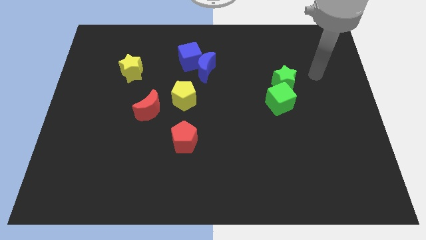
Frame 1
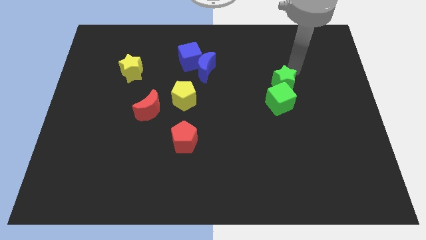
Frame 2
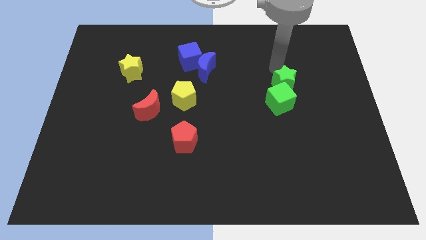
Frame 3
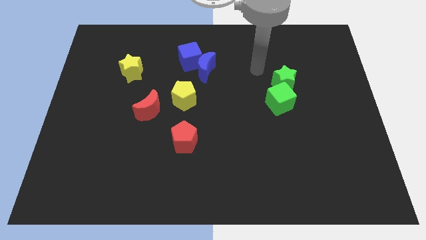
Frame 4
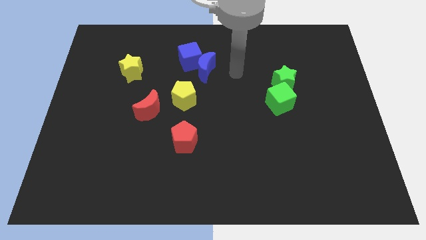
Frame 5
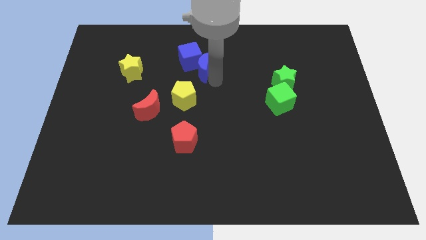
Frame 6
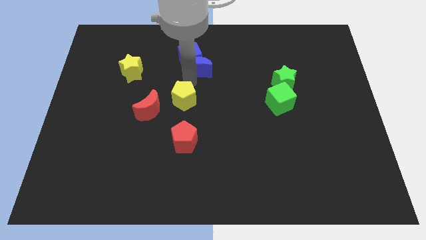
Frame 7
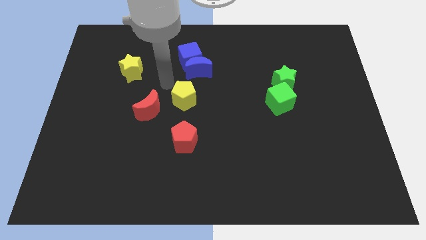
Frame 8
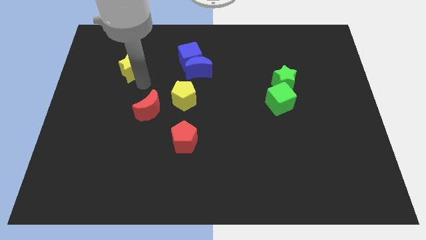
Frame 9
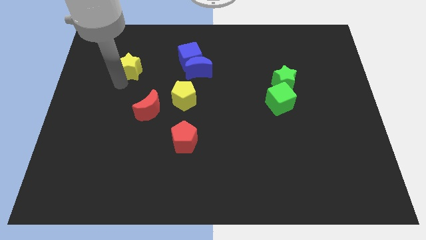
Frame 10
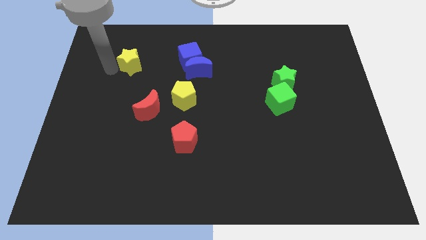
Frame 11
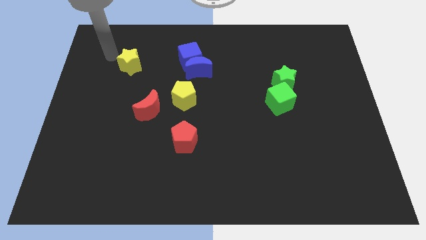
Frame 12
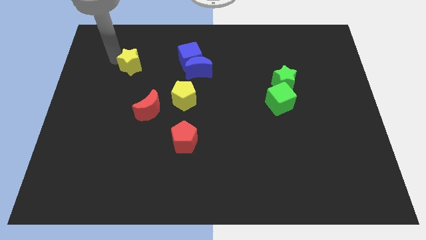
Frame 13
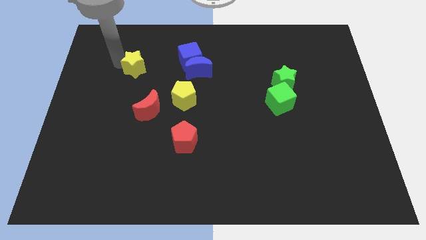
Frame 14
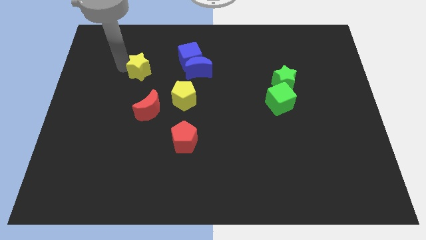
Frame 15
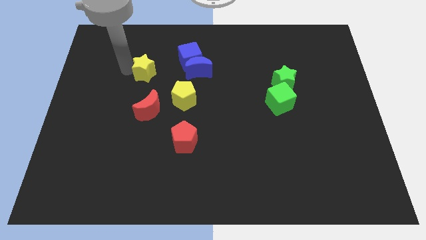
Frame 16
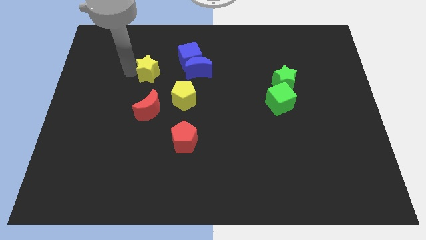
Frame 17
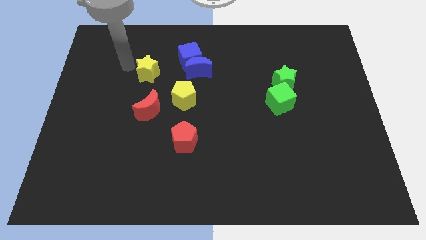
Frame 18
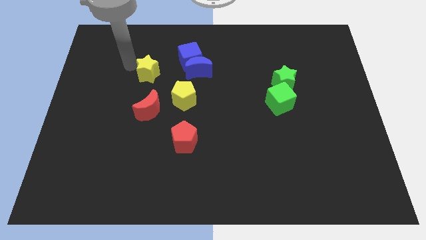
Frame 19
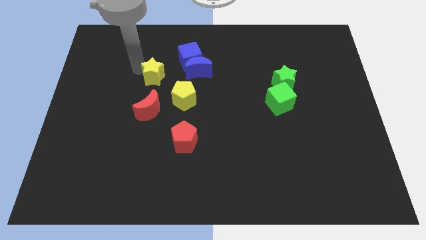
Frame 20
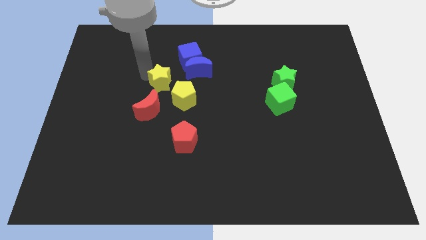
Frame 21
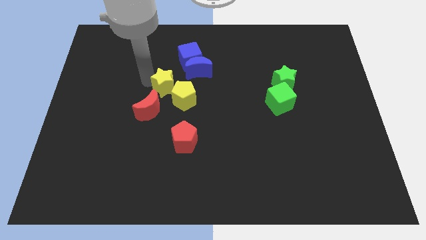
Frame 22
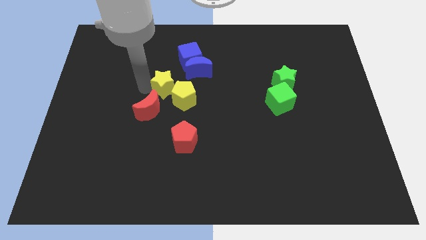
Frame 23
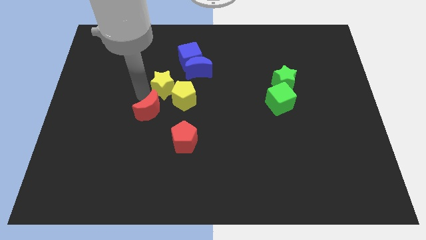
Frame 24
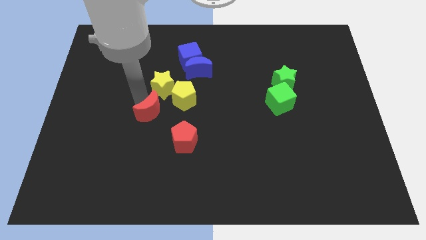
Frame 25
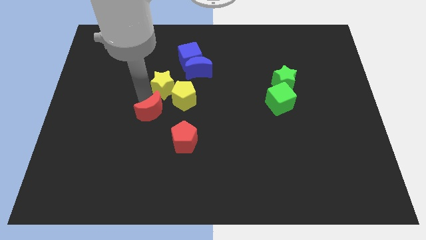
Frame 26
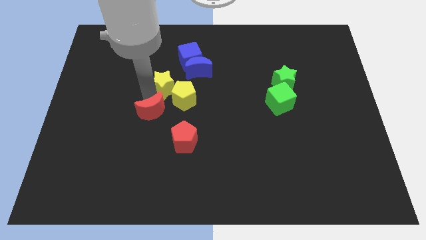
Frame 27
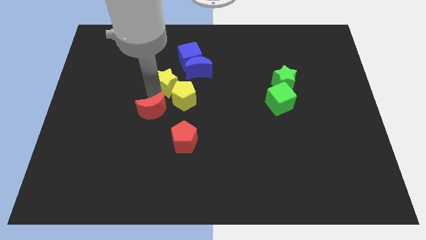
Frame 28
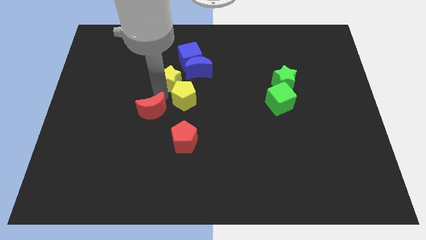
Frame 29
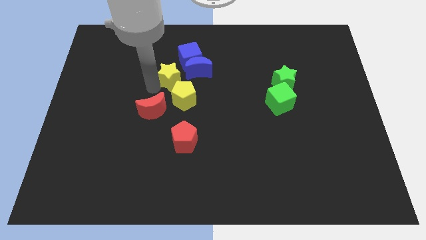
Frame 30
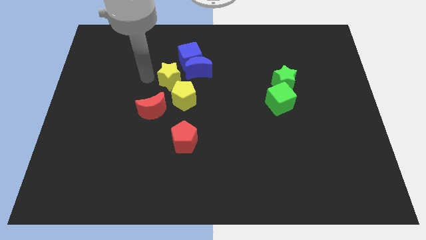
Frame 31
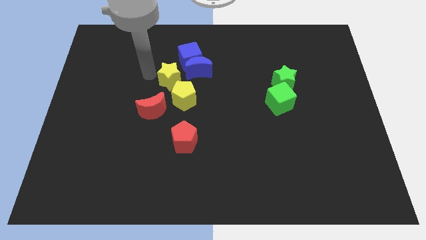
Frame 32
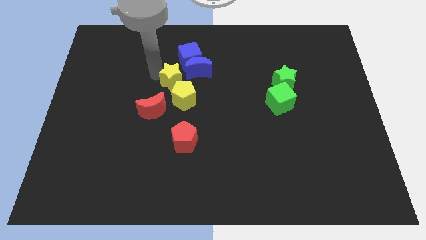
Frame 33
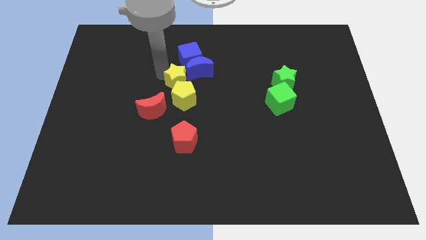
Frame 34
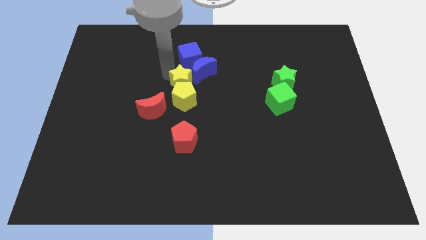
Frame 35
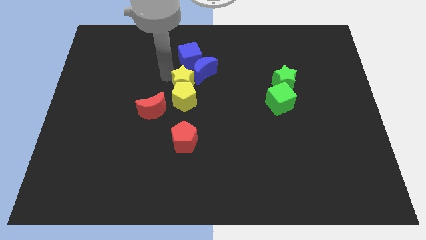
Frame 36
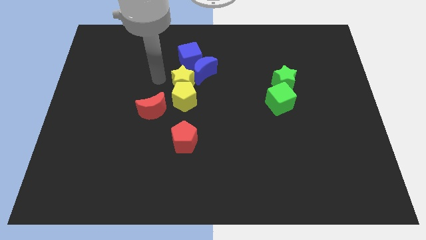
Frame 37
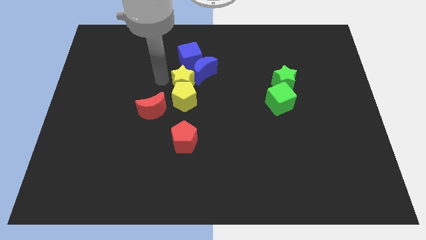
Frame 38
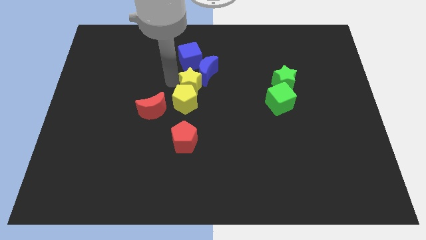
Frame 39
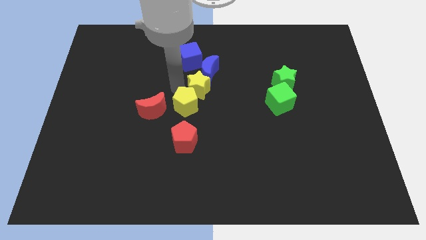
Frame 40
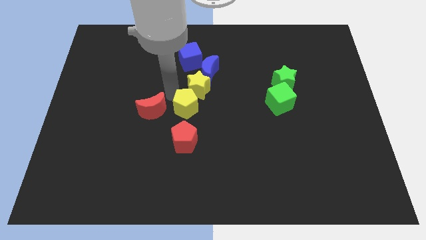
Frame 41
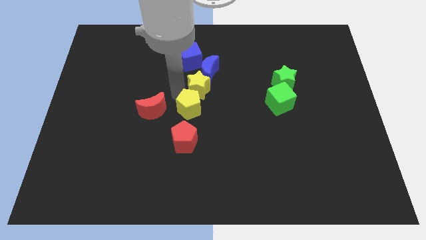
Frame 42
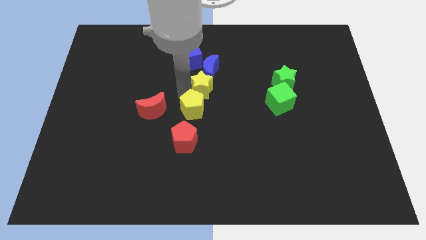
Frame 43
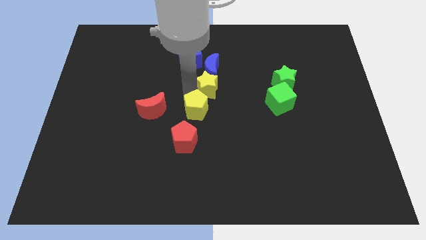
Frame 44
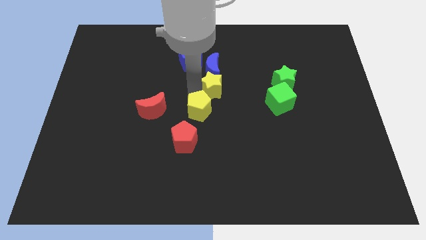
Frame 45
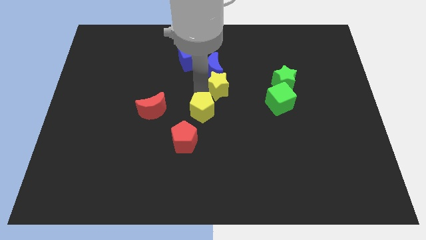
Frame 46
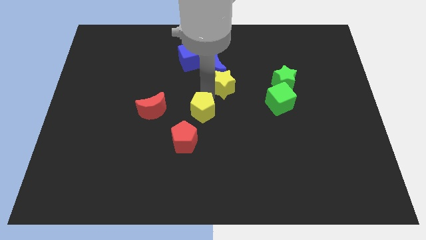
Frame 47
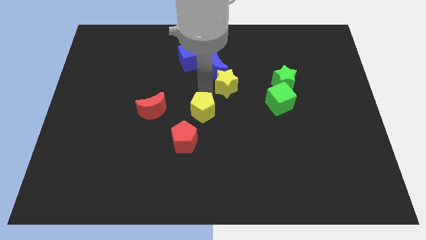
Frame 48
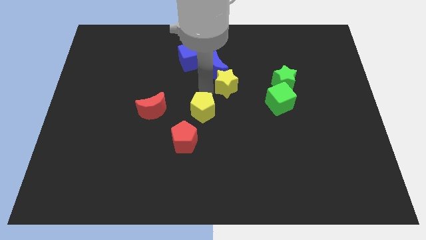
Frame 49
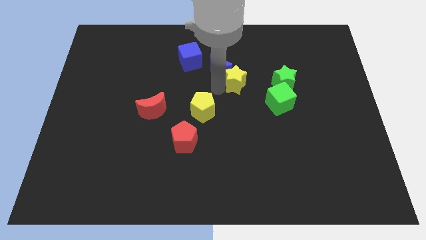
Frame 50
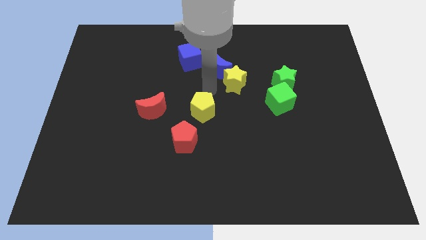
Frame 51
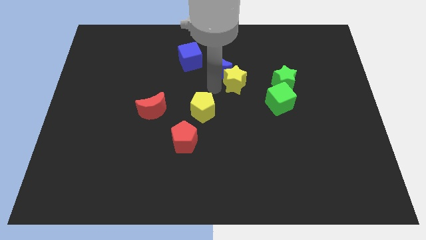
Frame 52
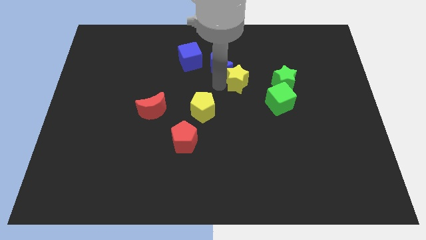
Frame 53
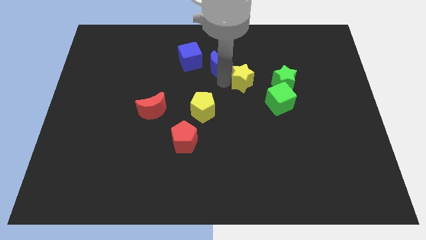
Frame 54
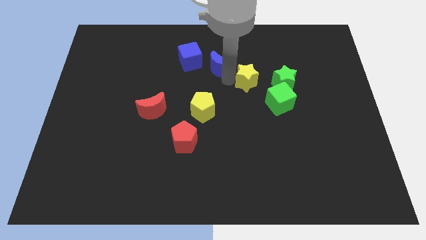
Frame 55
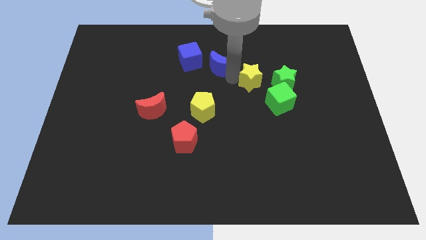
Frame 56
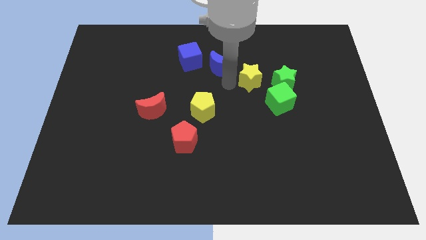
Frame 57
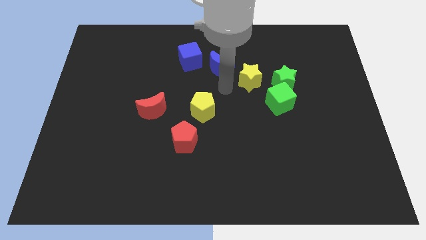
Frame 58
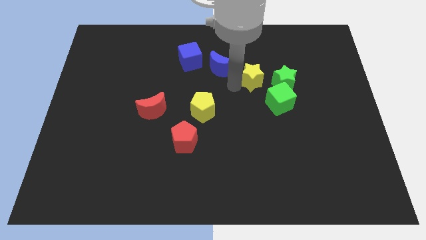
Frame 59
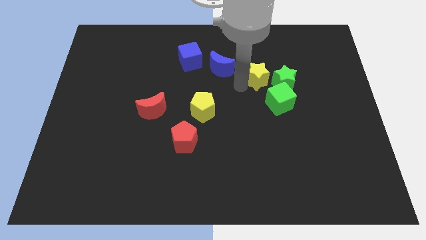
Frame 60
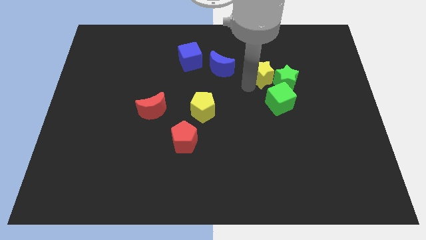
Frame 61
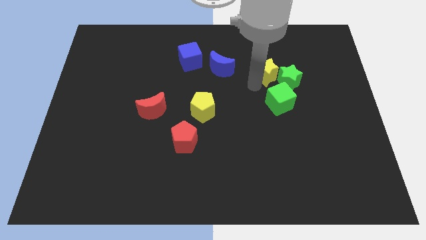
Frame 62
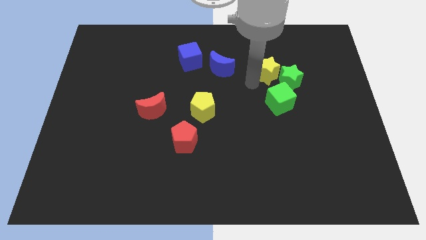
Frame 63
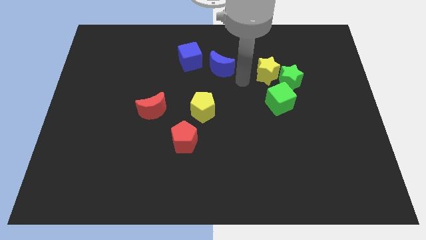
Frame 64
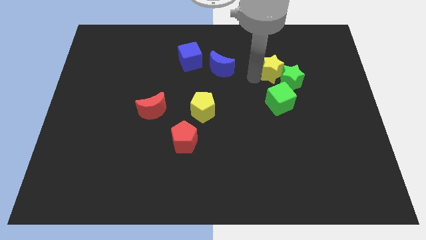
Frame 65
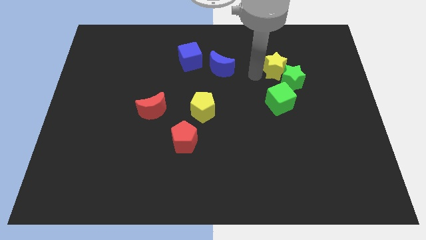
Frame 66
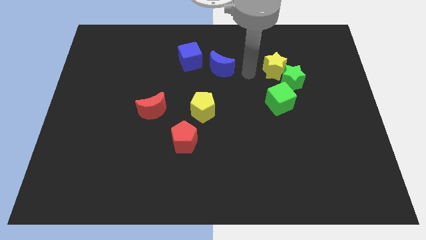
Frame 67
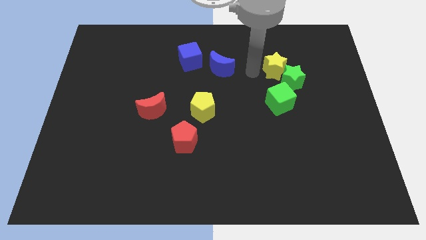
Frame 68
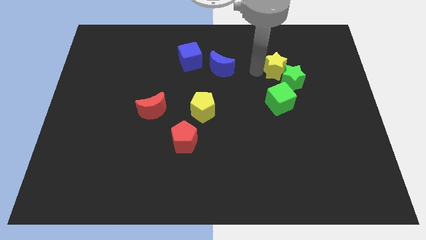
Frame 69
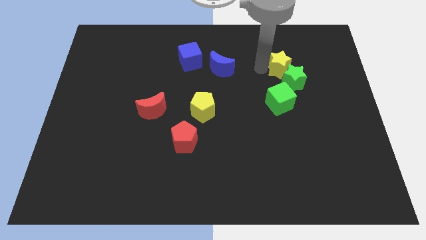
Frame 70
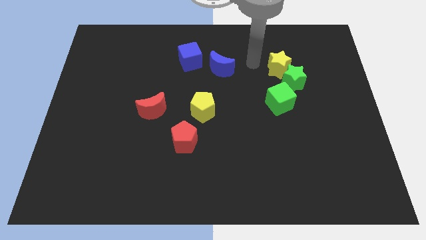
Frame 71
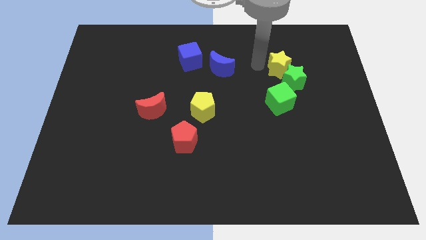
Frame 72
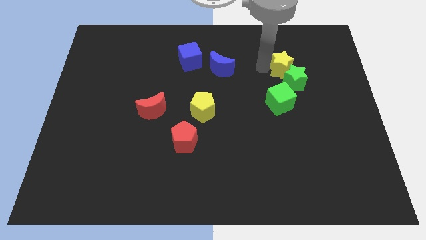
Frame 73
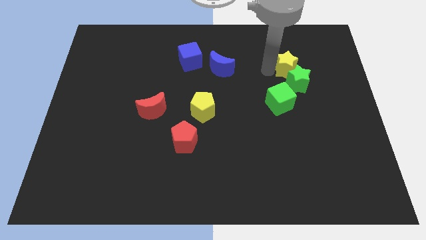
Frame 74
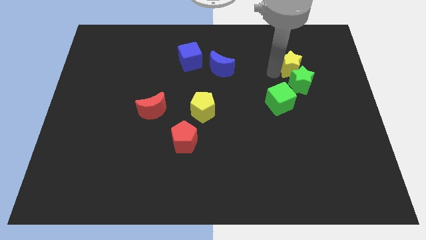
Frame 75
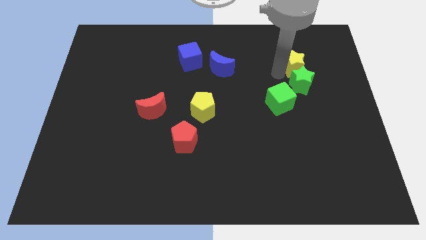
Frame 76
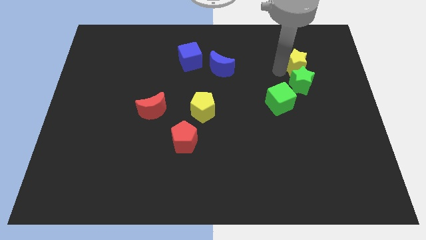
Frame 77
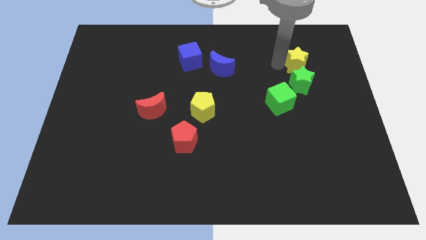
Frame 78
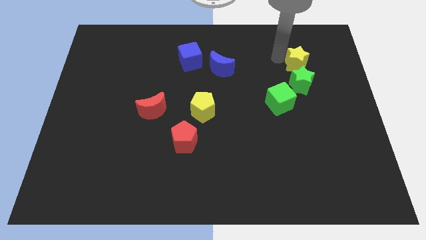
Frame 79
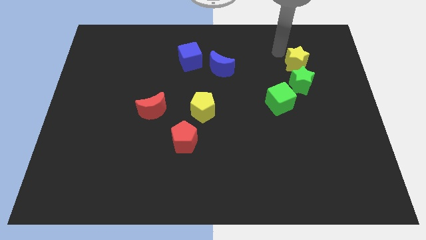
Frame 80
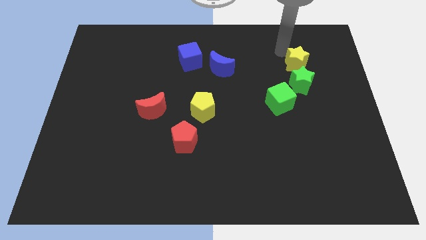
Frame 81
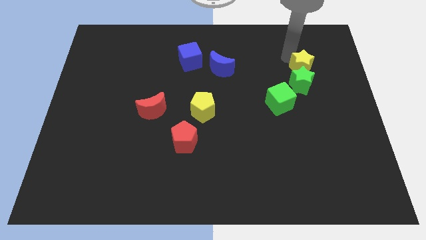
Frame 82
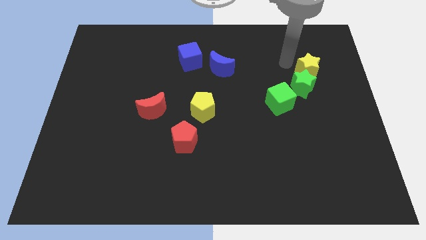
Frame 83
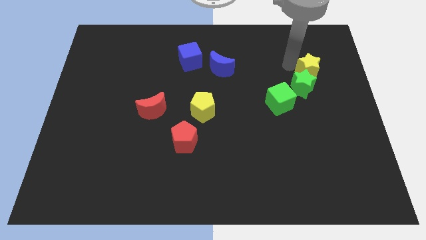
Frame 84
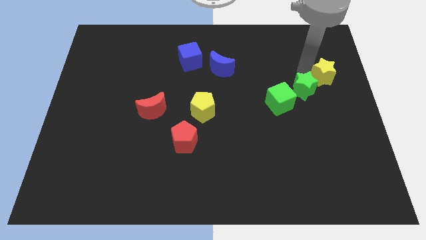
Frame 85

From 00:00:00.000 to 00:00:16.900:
put the yellow star to the center right
